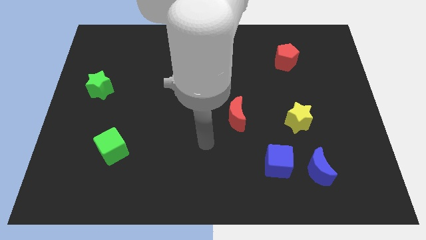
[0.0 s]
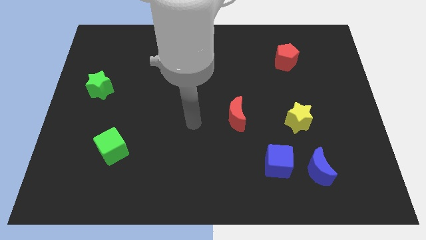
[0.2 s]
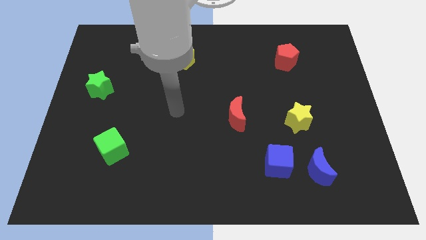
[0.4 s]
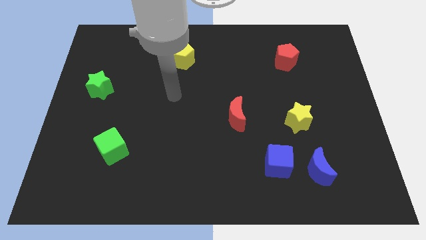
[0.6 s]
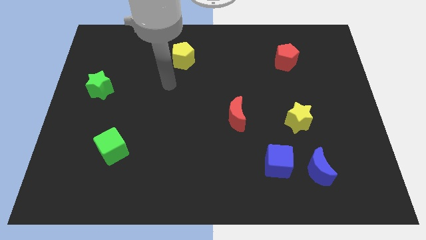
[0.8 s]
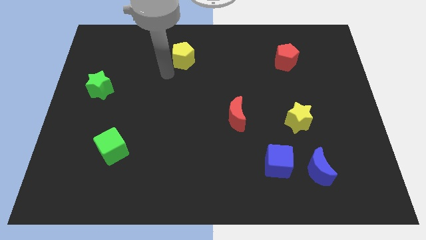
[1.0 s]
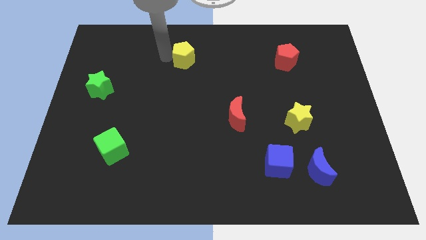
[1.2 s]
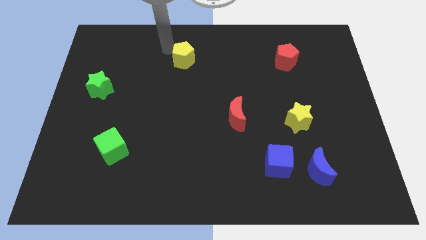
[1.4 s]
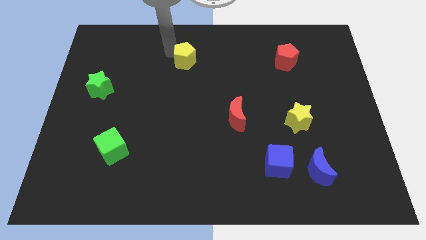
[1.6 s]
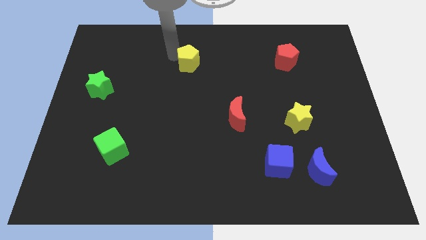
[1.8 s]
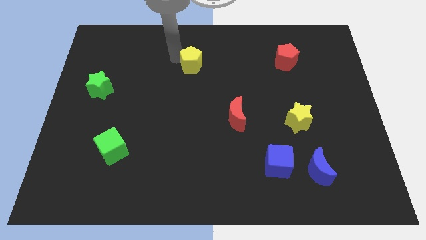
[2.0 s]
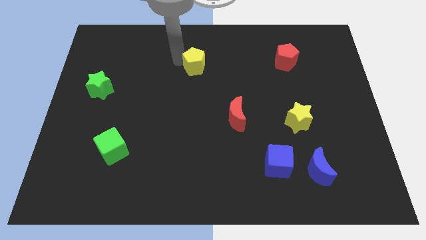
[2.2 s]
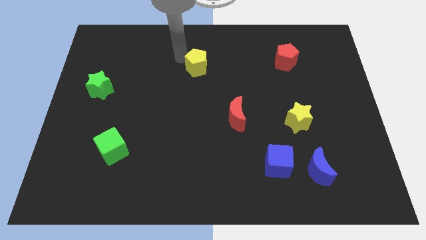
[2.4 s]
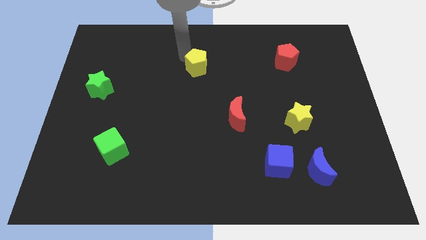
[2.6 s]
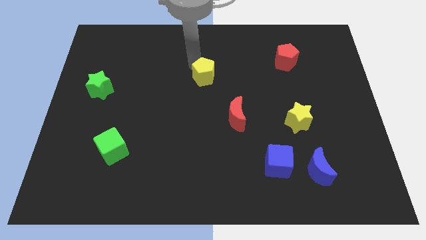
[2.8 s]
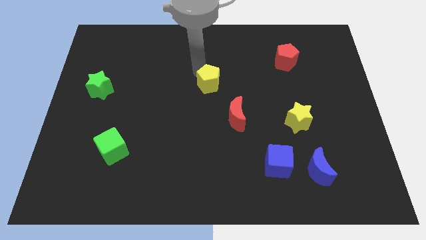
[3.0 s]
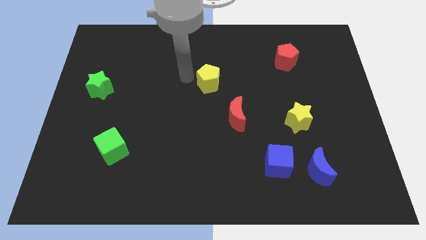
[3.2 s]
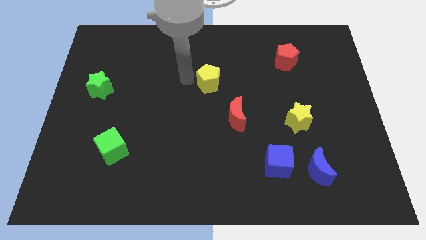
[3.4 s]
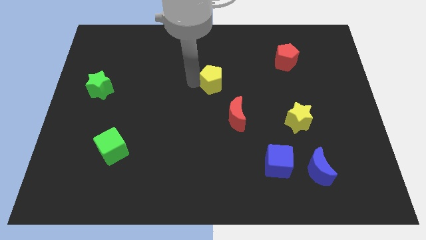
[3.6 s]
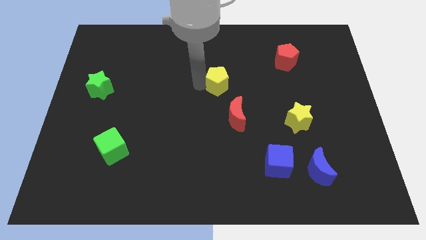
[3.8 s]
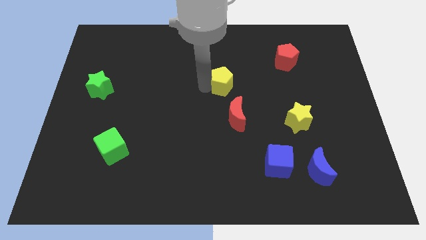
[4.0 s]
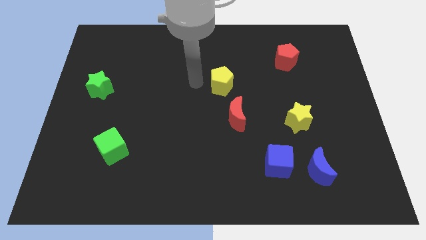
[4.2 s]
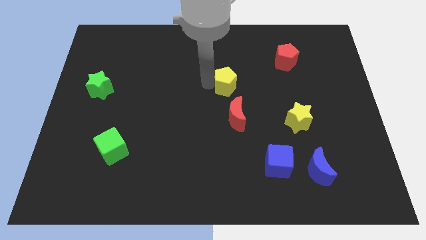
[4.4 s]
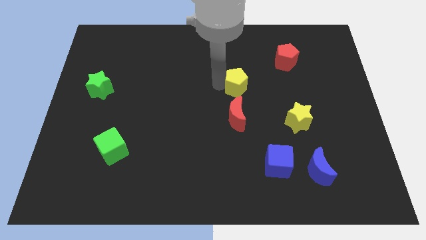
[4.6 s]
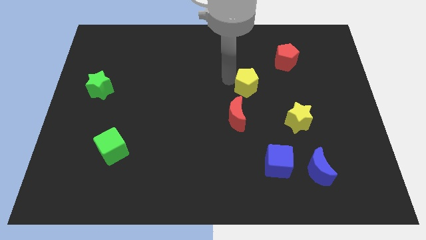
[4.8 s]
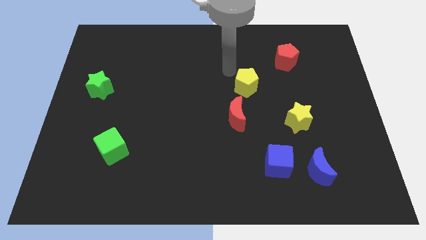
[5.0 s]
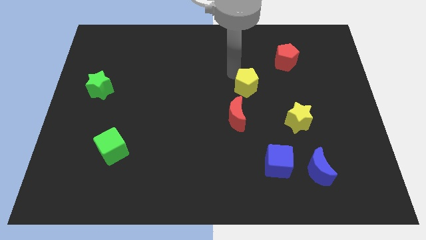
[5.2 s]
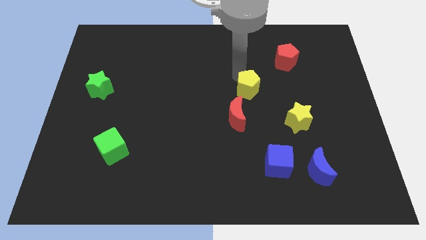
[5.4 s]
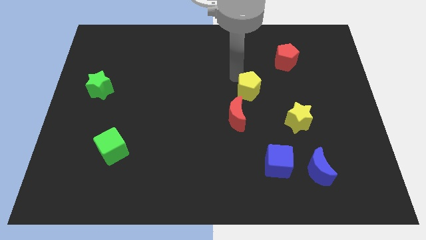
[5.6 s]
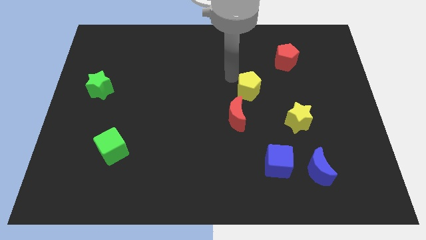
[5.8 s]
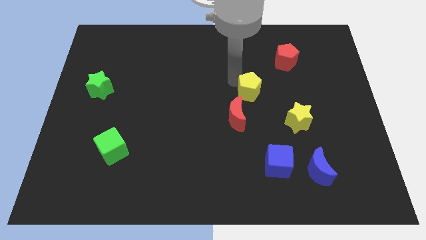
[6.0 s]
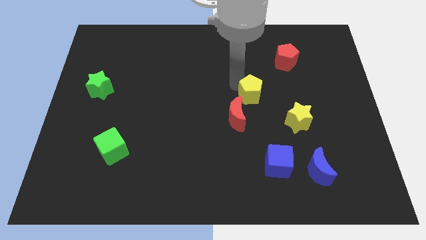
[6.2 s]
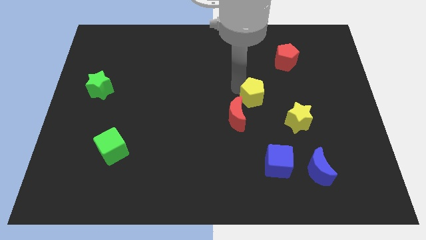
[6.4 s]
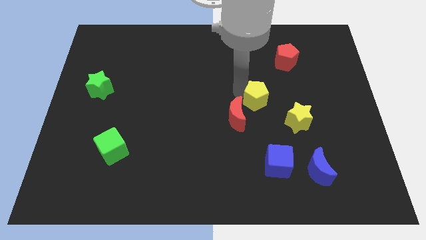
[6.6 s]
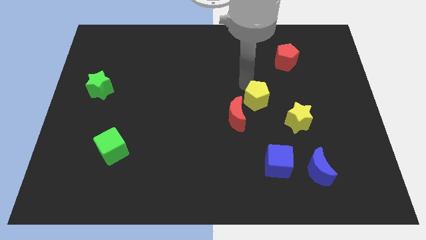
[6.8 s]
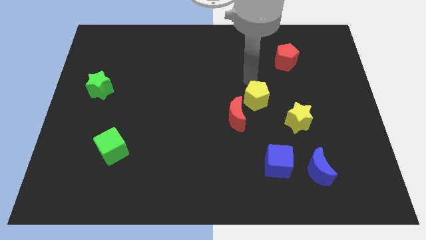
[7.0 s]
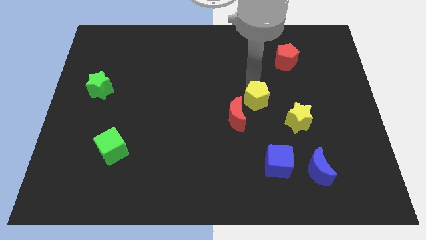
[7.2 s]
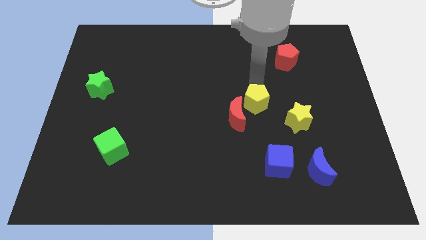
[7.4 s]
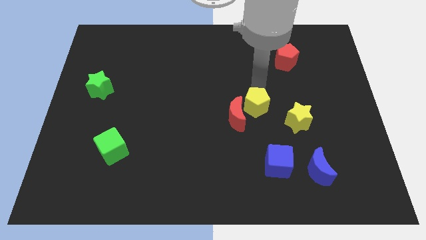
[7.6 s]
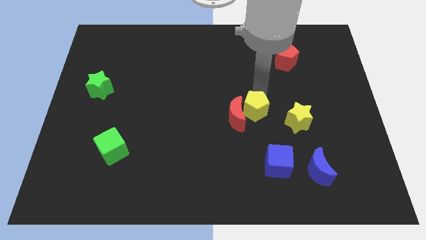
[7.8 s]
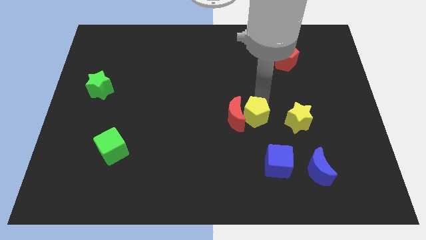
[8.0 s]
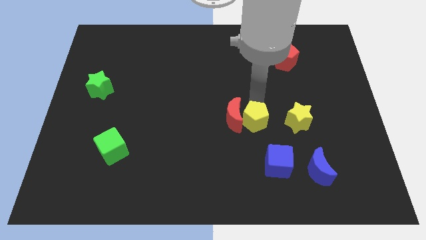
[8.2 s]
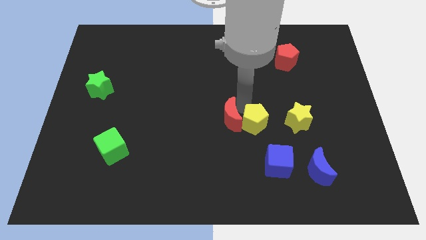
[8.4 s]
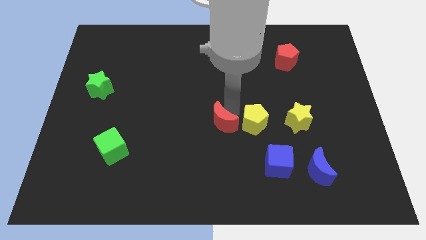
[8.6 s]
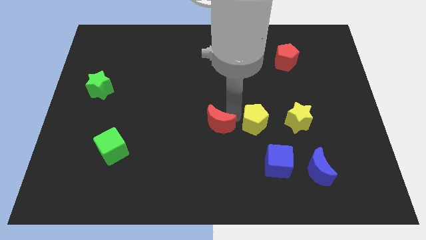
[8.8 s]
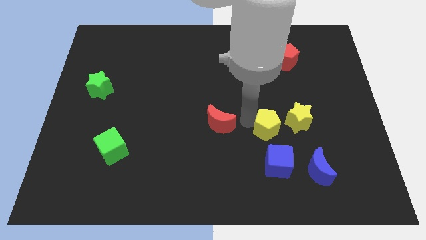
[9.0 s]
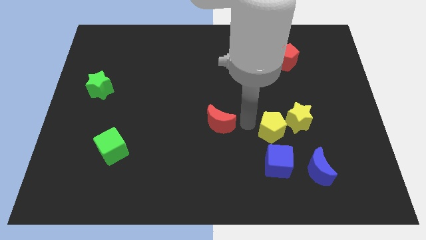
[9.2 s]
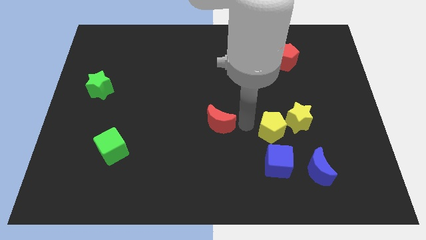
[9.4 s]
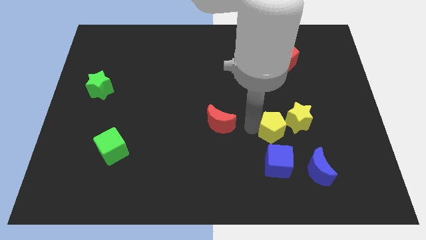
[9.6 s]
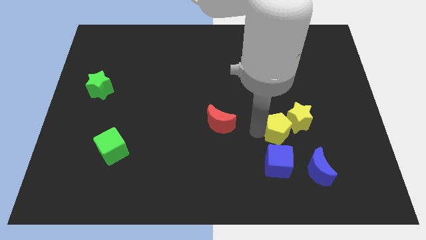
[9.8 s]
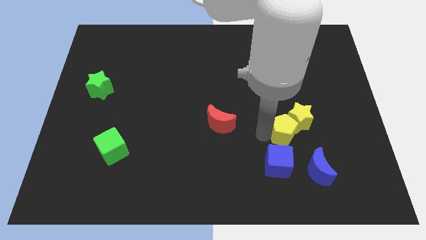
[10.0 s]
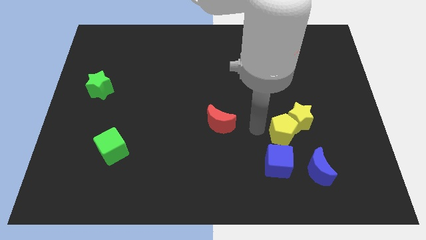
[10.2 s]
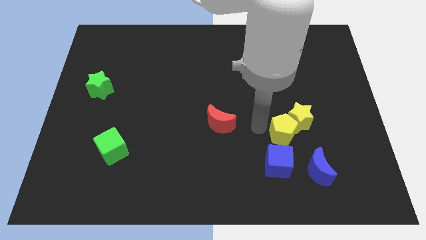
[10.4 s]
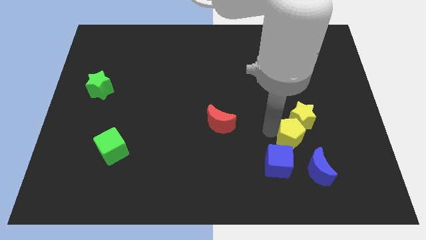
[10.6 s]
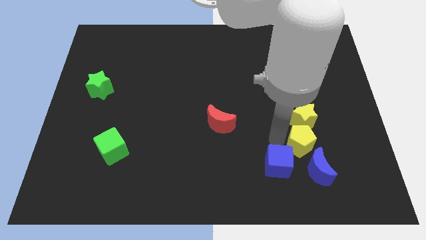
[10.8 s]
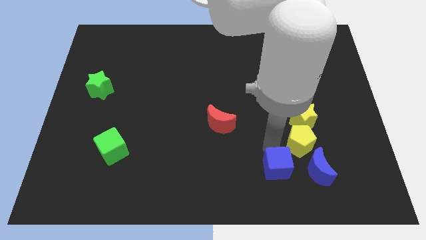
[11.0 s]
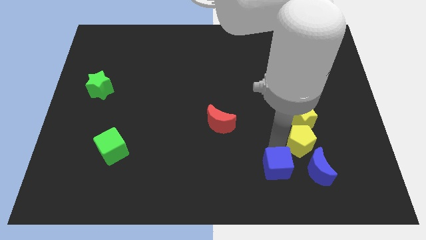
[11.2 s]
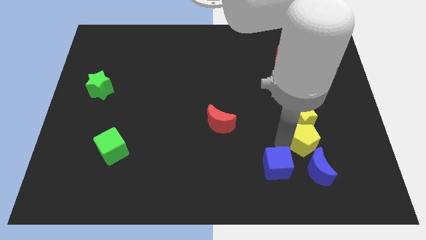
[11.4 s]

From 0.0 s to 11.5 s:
slide the yellow pentagon to the bottom right of the yellow star

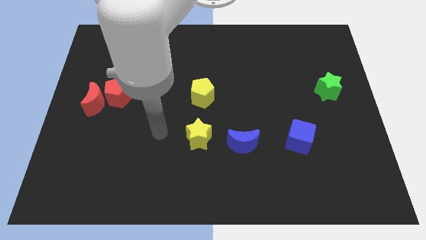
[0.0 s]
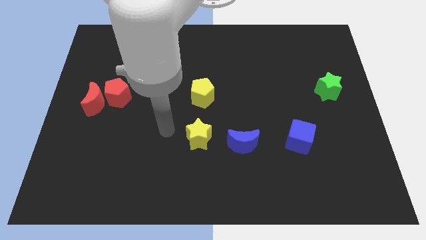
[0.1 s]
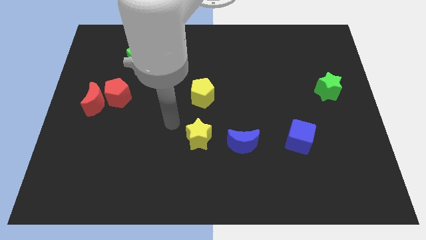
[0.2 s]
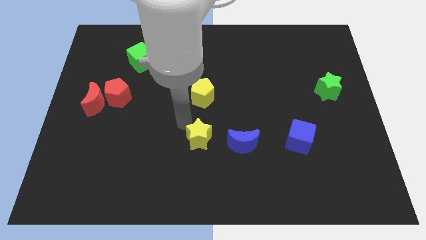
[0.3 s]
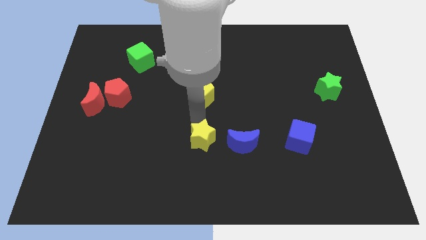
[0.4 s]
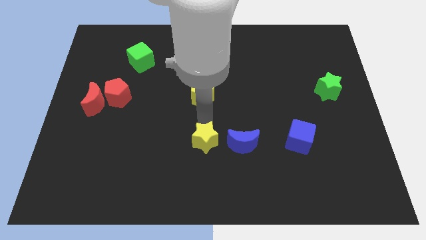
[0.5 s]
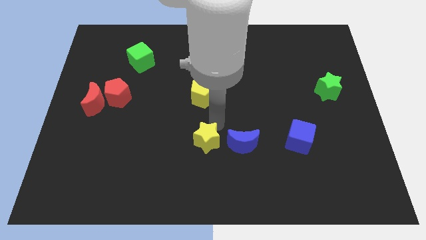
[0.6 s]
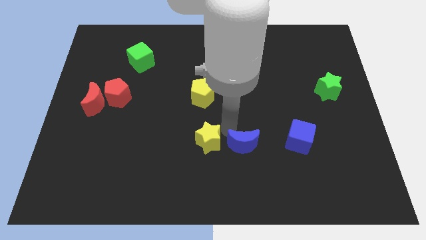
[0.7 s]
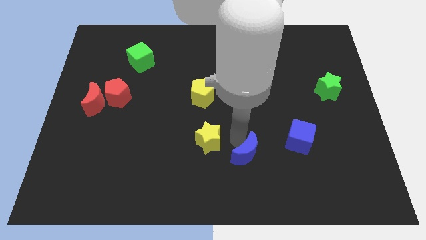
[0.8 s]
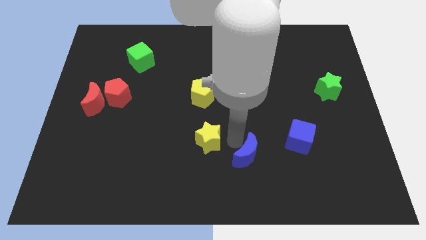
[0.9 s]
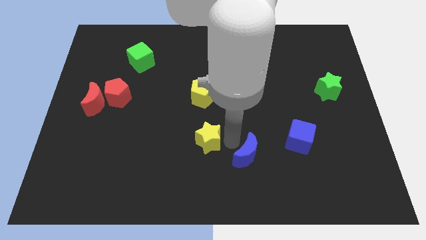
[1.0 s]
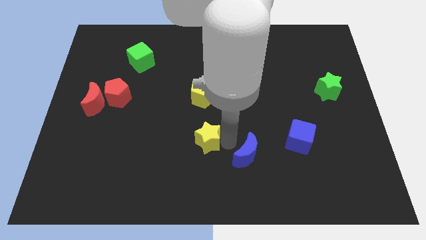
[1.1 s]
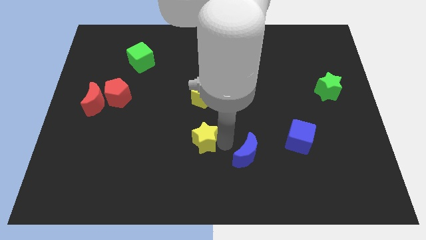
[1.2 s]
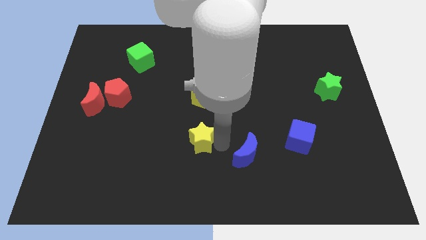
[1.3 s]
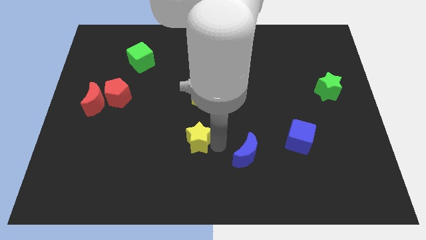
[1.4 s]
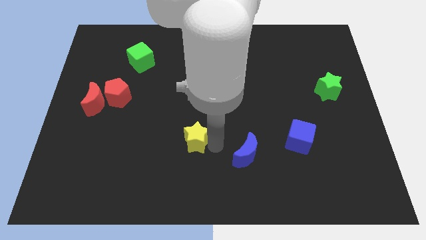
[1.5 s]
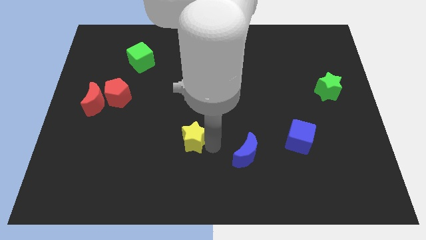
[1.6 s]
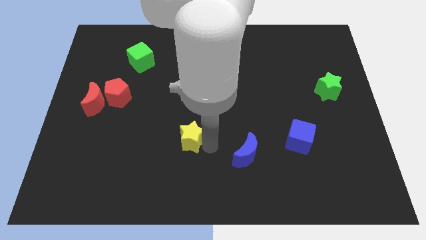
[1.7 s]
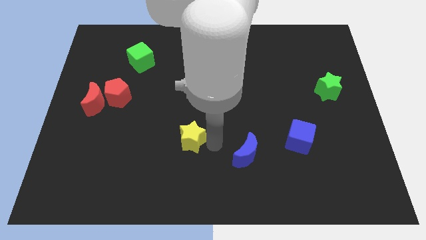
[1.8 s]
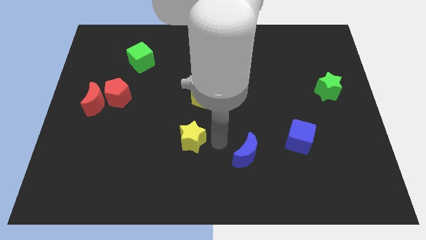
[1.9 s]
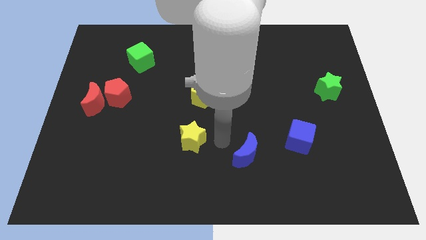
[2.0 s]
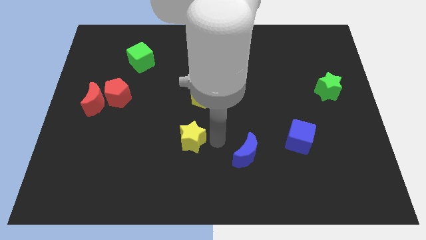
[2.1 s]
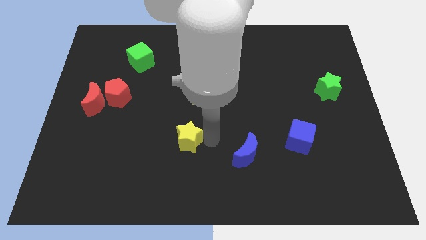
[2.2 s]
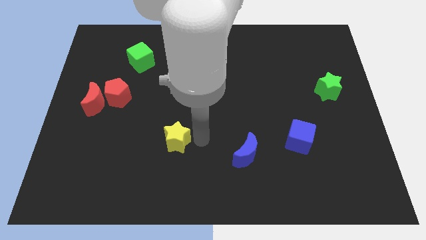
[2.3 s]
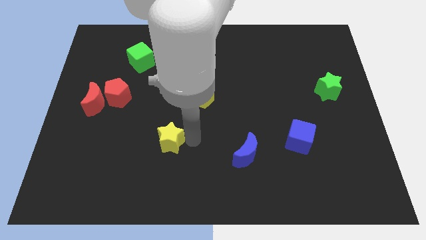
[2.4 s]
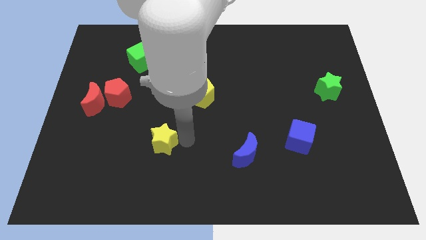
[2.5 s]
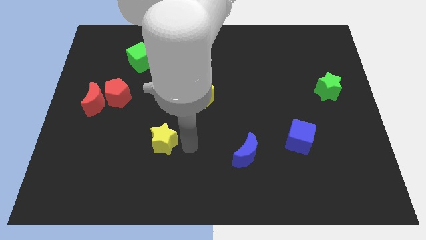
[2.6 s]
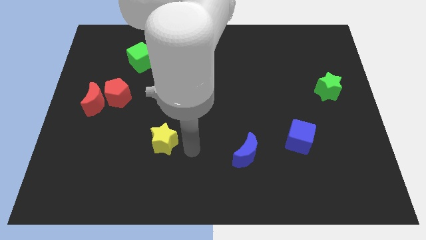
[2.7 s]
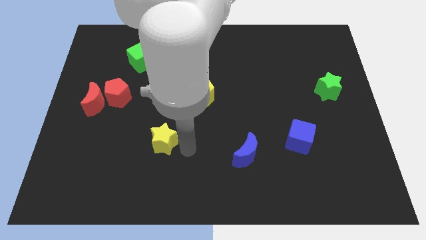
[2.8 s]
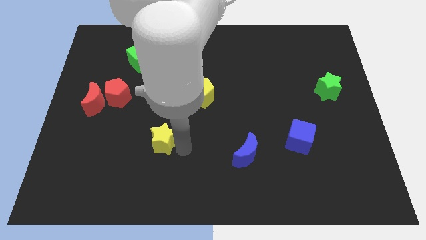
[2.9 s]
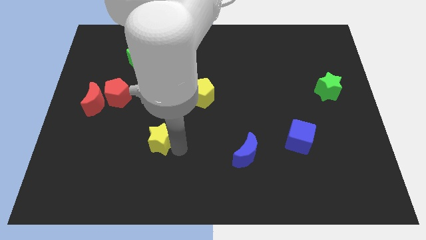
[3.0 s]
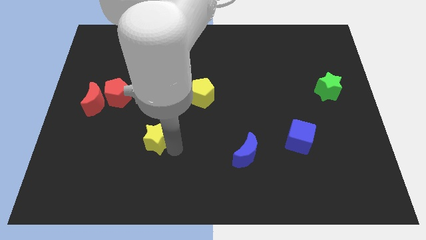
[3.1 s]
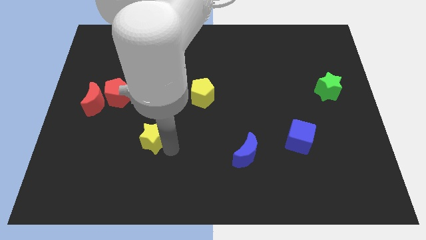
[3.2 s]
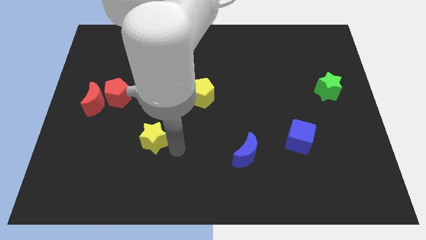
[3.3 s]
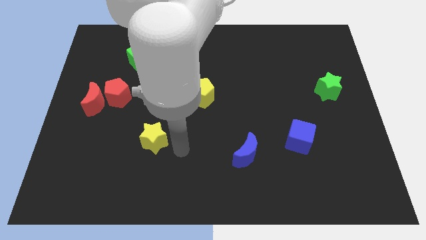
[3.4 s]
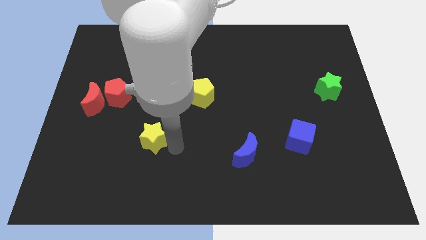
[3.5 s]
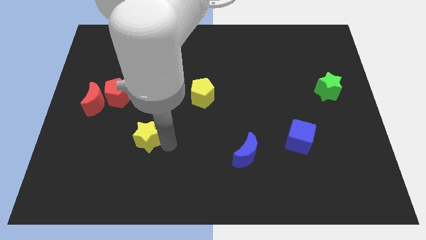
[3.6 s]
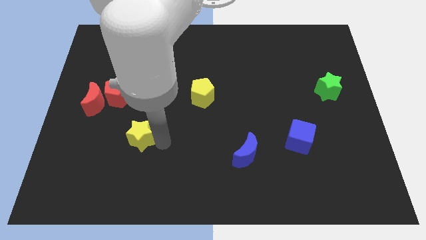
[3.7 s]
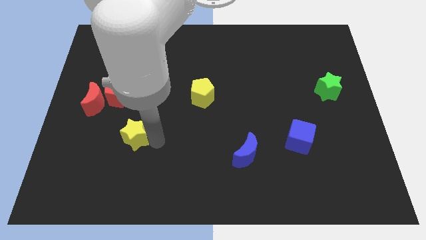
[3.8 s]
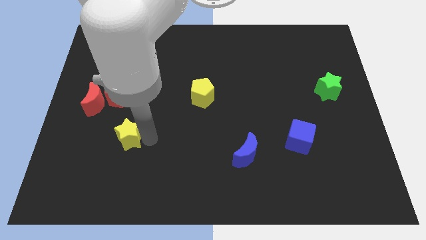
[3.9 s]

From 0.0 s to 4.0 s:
put the yellow star to the bottom of the red pentagon
